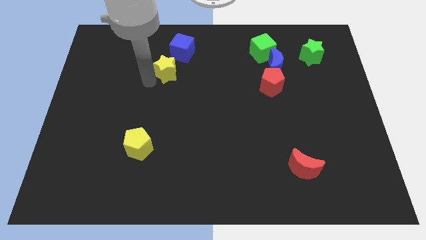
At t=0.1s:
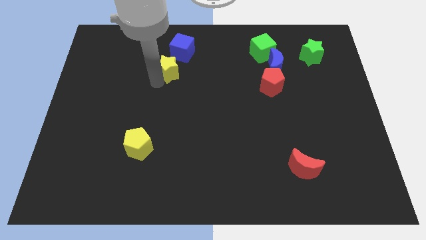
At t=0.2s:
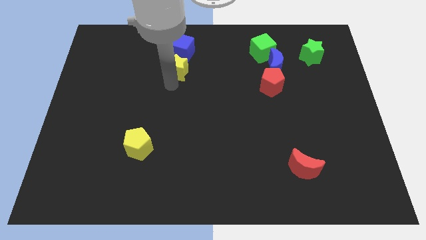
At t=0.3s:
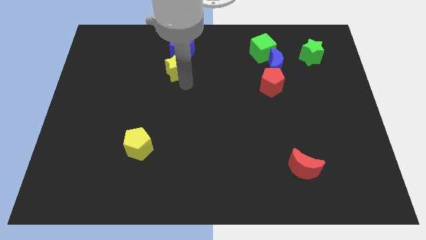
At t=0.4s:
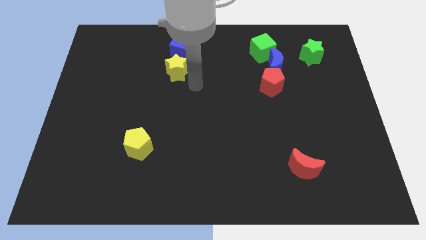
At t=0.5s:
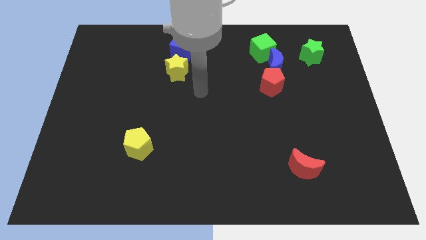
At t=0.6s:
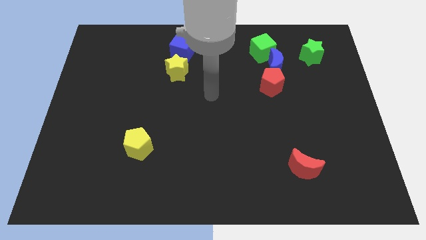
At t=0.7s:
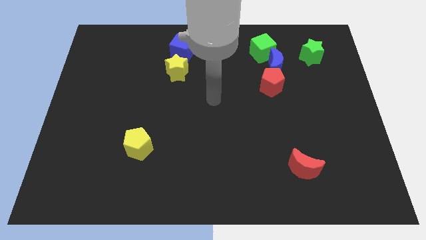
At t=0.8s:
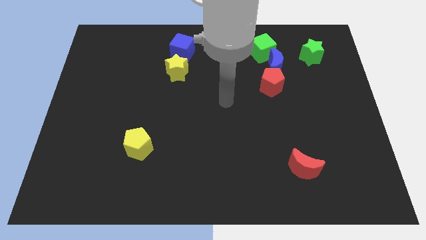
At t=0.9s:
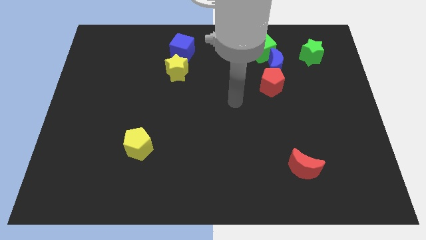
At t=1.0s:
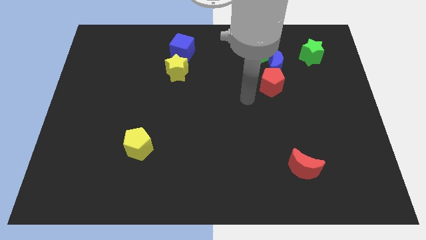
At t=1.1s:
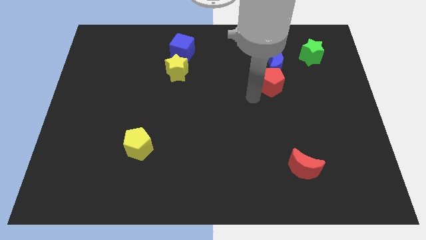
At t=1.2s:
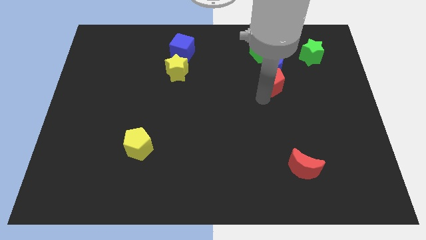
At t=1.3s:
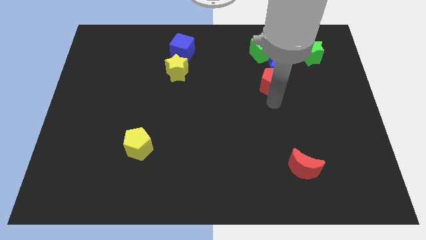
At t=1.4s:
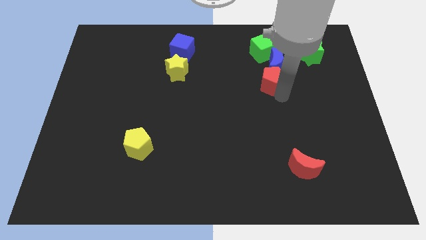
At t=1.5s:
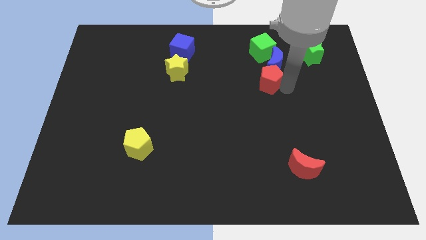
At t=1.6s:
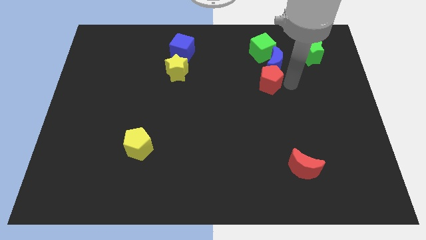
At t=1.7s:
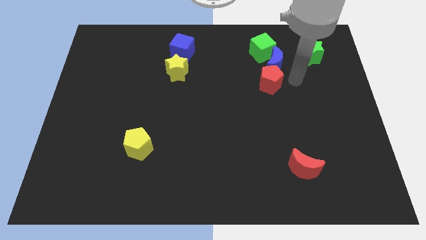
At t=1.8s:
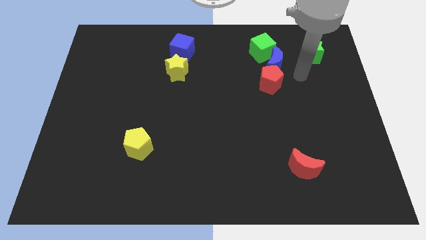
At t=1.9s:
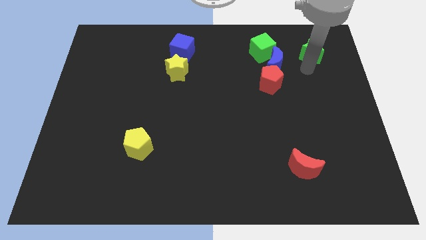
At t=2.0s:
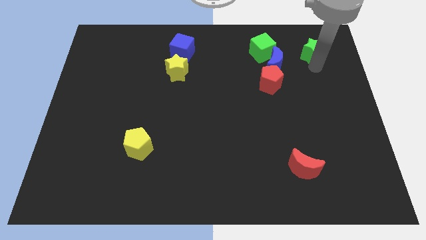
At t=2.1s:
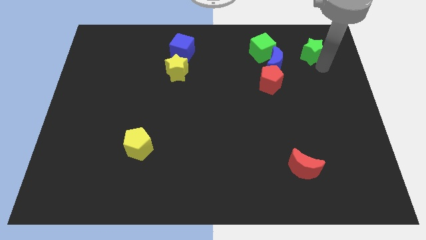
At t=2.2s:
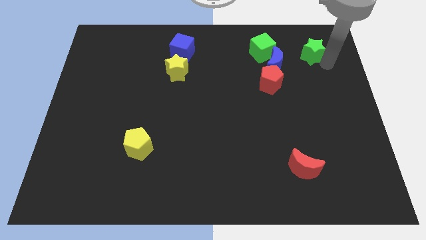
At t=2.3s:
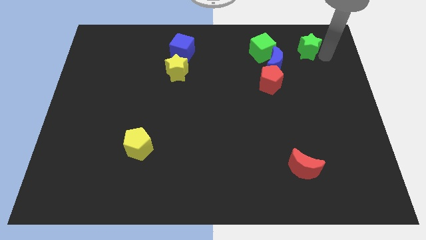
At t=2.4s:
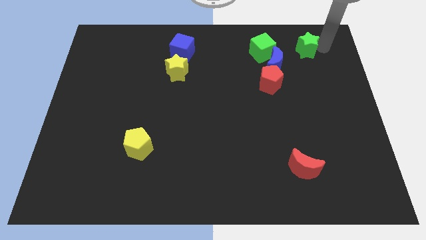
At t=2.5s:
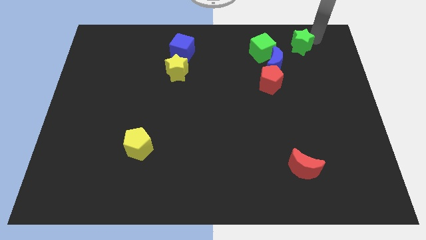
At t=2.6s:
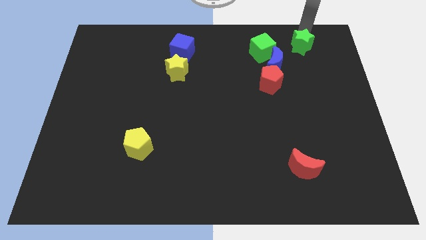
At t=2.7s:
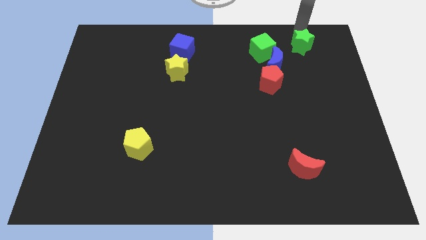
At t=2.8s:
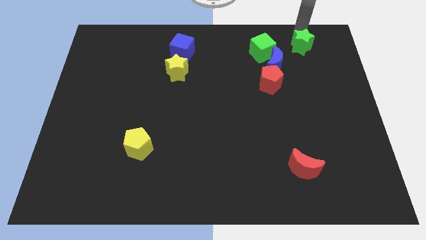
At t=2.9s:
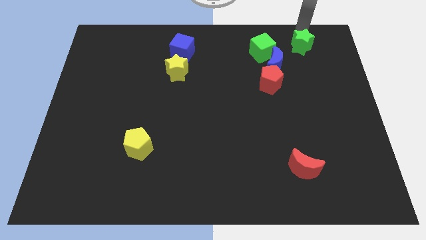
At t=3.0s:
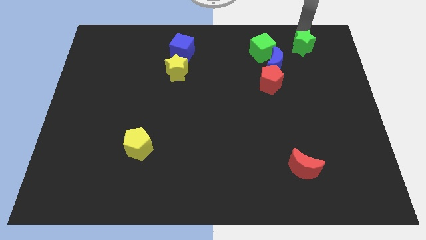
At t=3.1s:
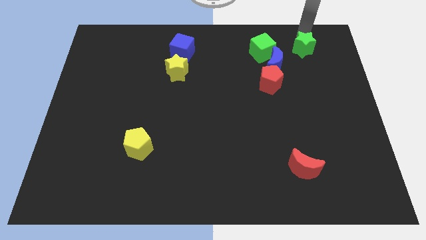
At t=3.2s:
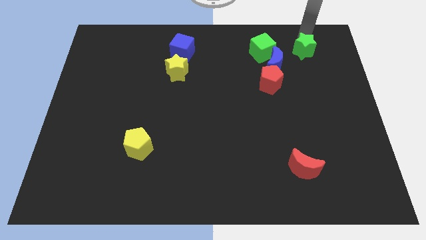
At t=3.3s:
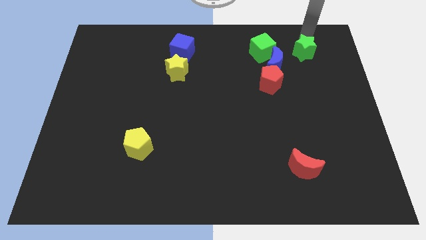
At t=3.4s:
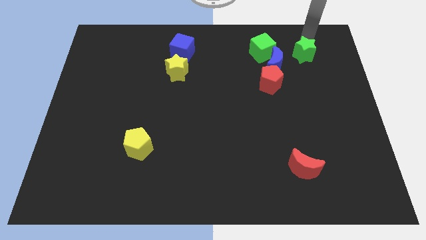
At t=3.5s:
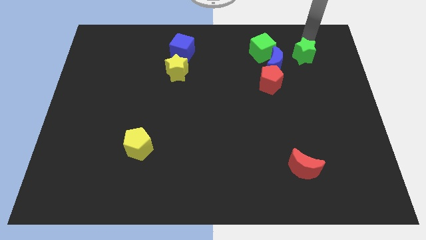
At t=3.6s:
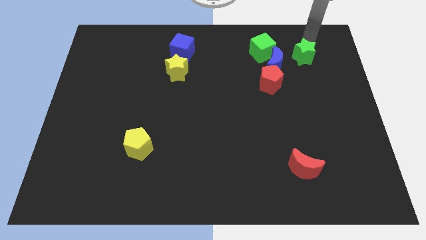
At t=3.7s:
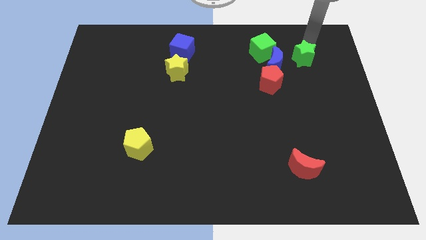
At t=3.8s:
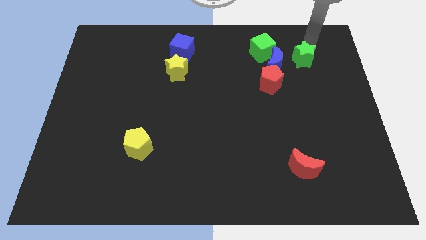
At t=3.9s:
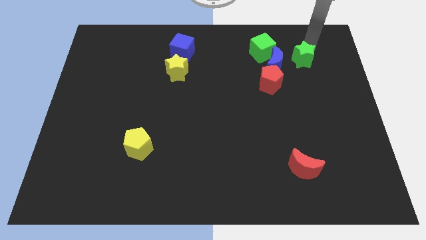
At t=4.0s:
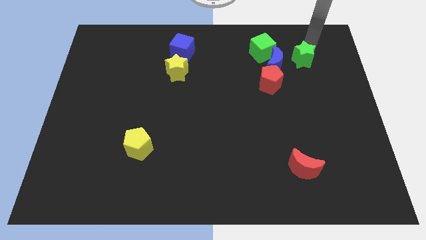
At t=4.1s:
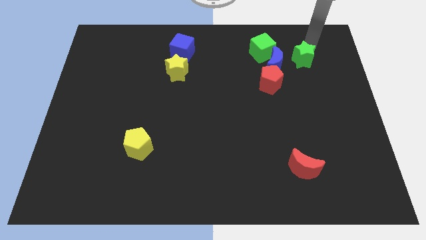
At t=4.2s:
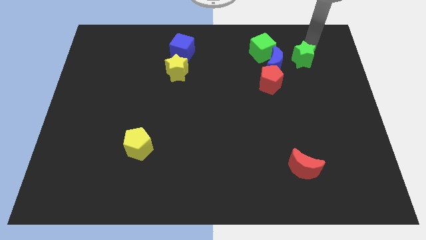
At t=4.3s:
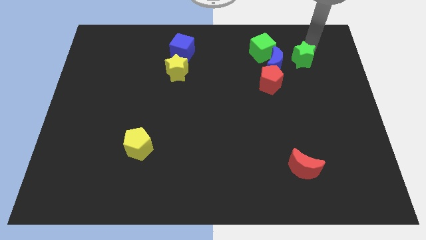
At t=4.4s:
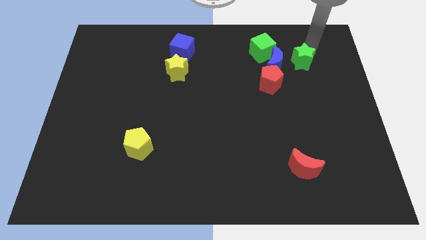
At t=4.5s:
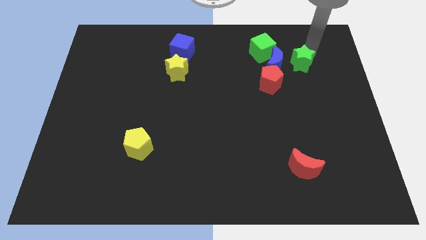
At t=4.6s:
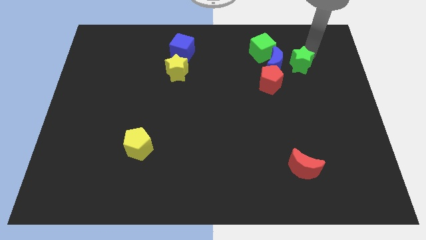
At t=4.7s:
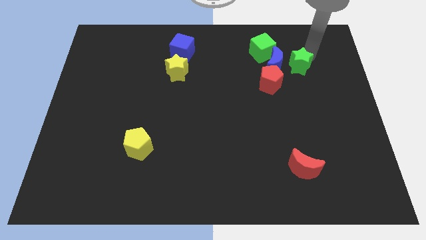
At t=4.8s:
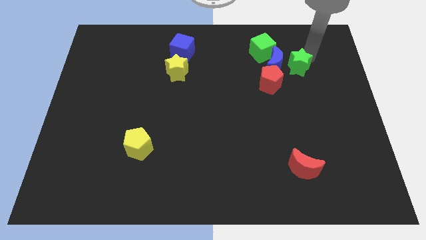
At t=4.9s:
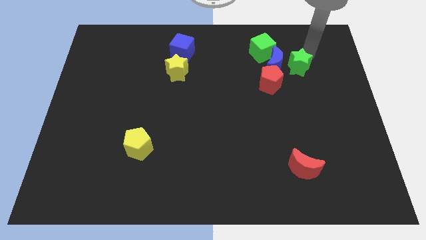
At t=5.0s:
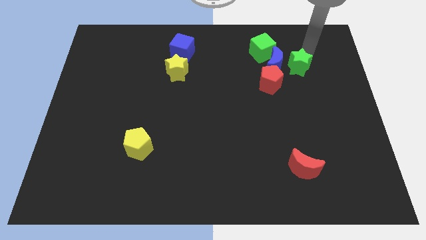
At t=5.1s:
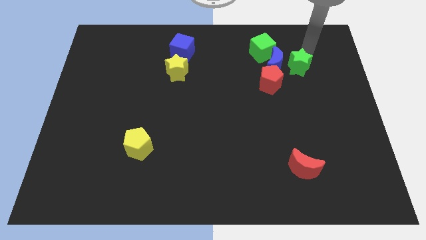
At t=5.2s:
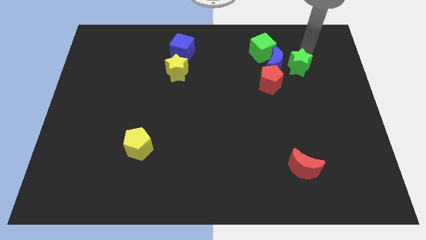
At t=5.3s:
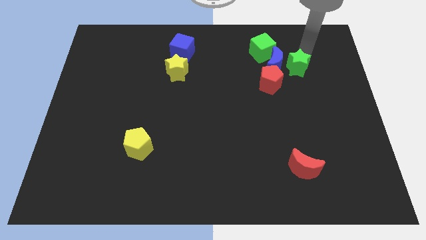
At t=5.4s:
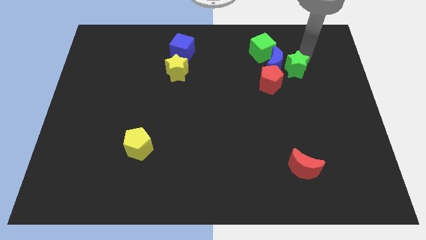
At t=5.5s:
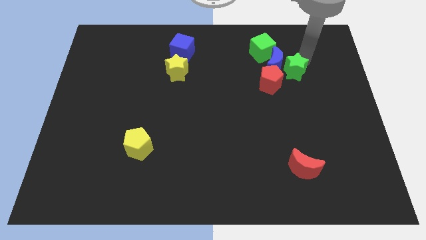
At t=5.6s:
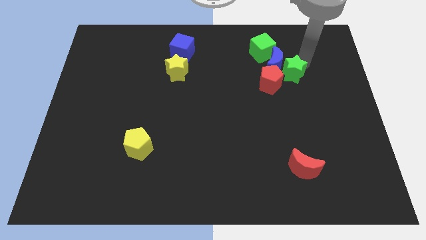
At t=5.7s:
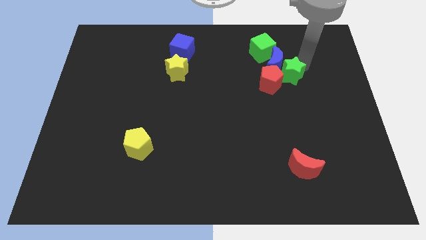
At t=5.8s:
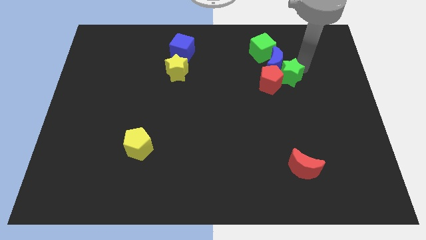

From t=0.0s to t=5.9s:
slide the green star close to the red pentagon

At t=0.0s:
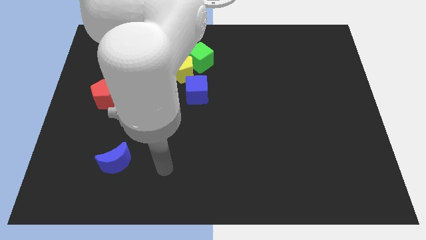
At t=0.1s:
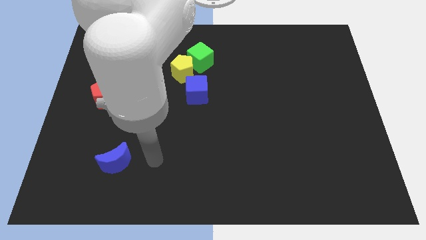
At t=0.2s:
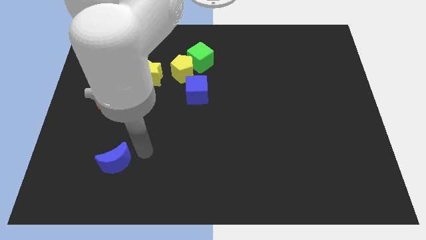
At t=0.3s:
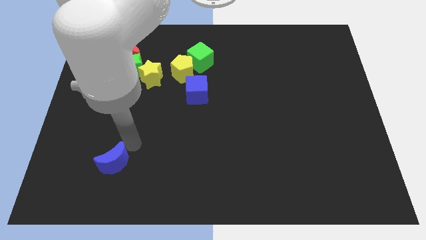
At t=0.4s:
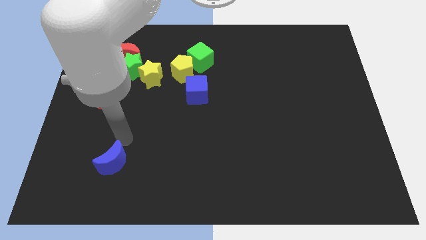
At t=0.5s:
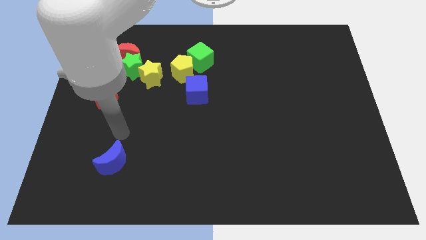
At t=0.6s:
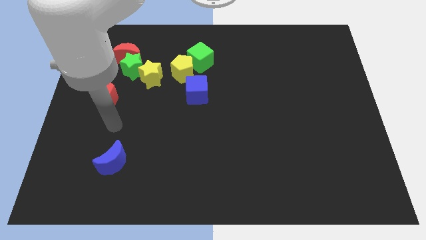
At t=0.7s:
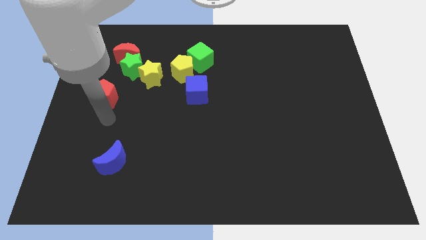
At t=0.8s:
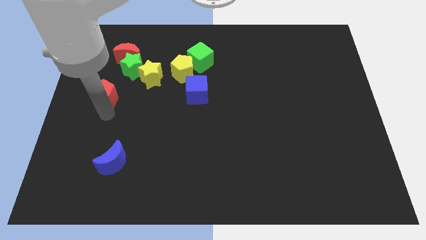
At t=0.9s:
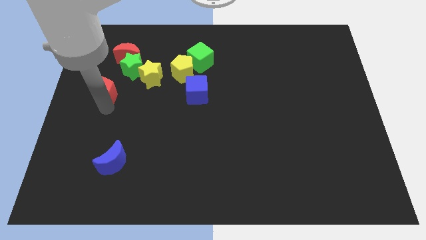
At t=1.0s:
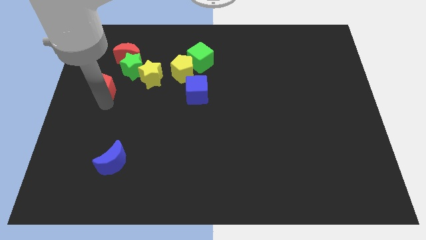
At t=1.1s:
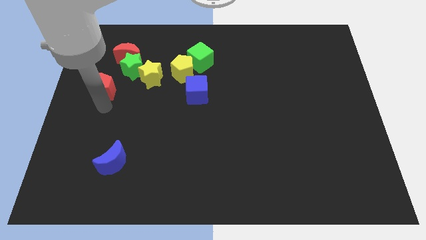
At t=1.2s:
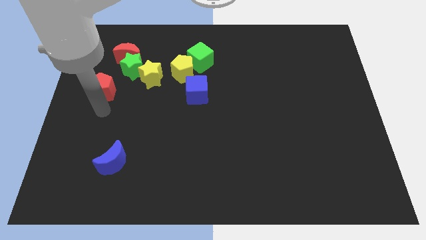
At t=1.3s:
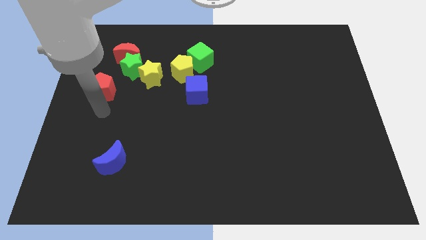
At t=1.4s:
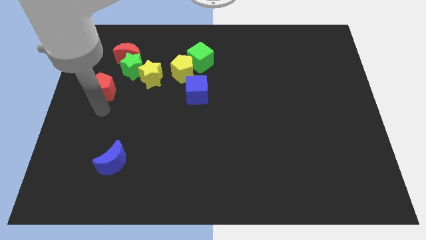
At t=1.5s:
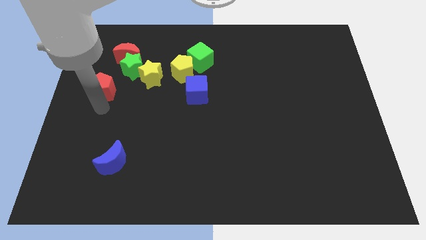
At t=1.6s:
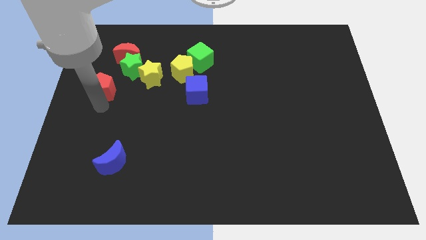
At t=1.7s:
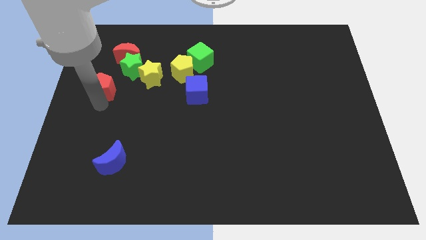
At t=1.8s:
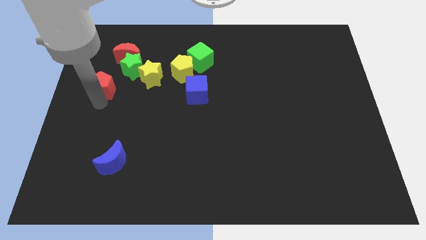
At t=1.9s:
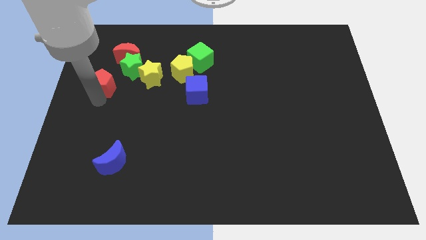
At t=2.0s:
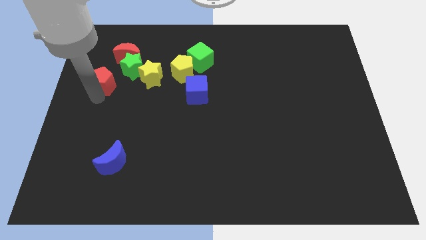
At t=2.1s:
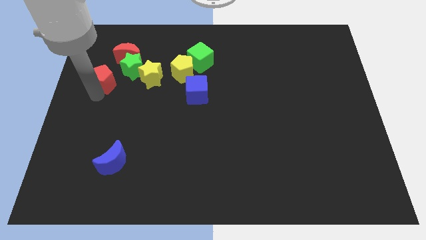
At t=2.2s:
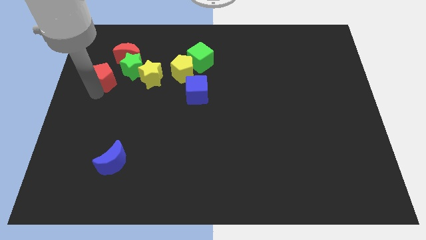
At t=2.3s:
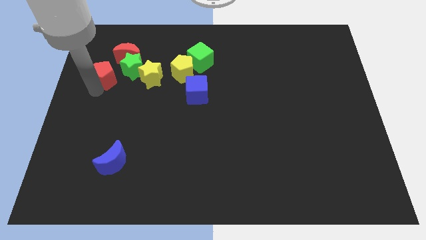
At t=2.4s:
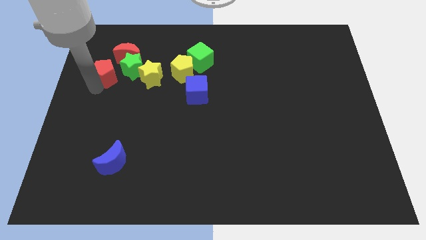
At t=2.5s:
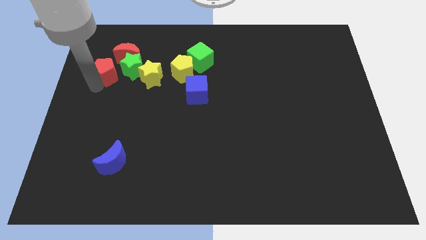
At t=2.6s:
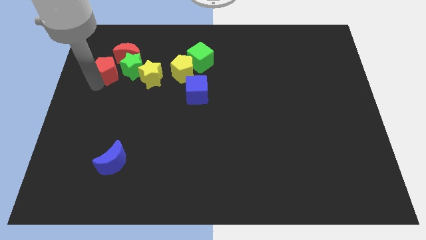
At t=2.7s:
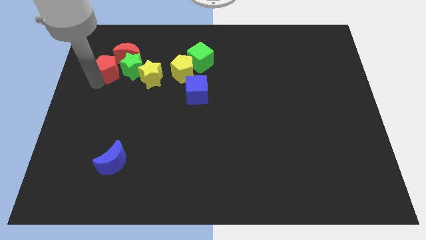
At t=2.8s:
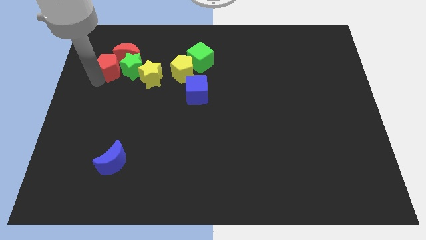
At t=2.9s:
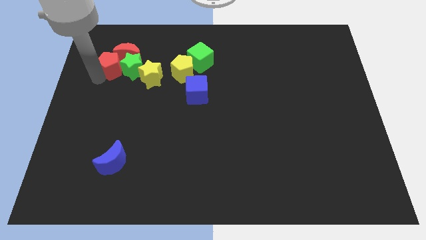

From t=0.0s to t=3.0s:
push the red pentagon towards the red moon
